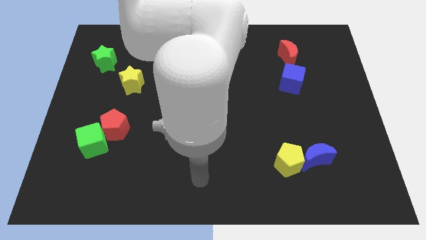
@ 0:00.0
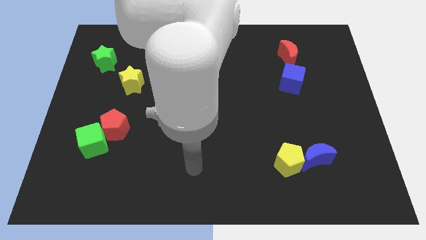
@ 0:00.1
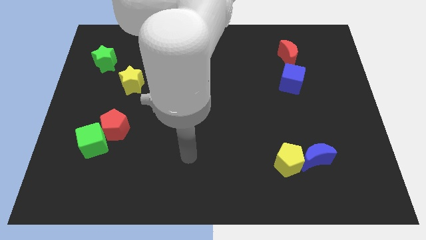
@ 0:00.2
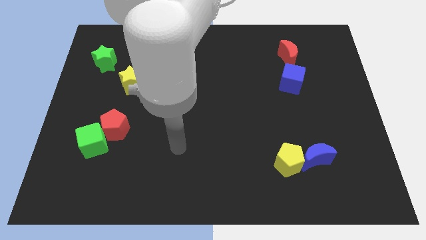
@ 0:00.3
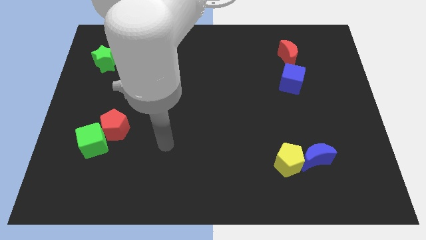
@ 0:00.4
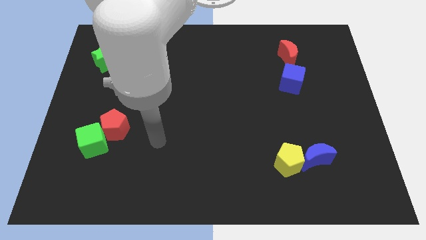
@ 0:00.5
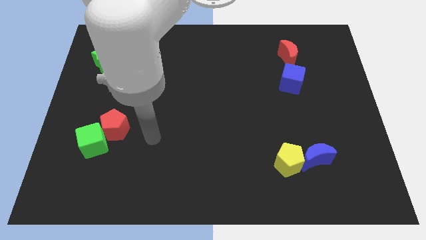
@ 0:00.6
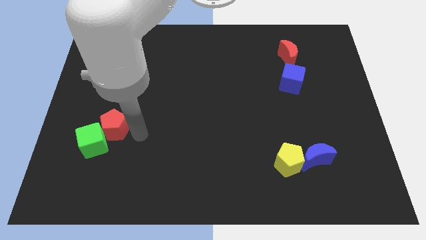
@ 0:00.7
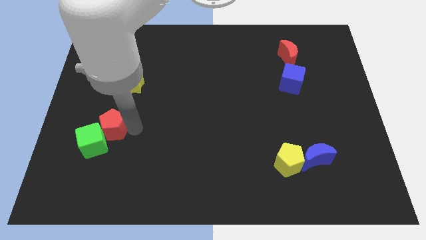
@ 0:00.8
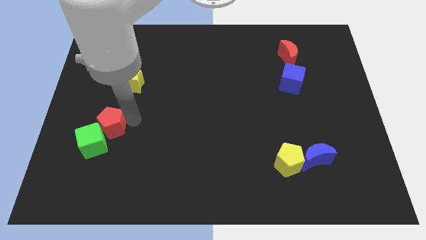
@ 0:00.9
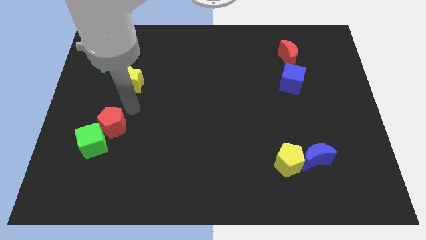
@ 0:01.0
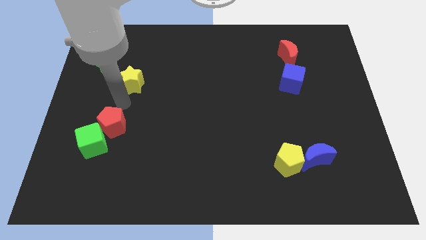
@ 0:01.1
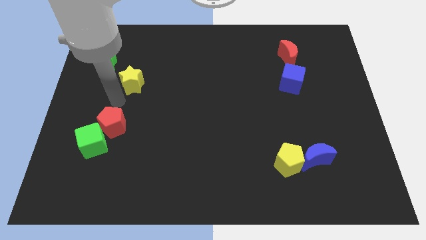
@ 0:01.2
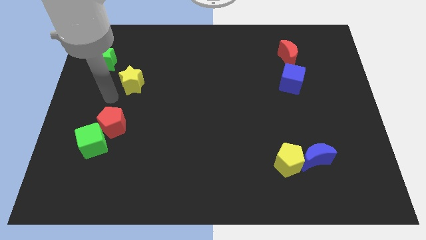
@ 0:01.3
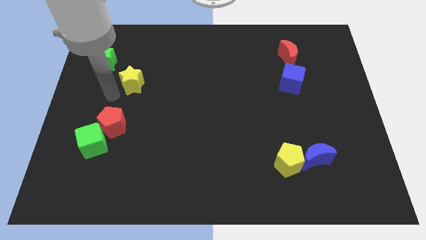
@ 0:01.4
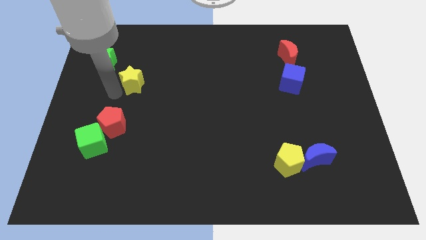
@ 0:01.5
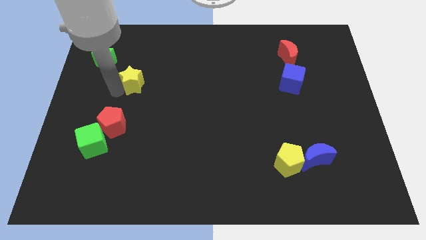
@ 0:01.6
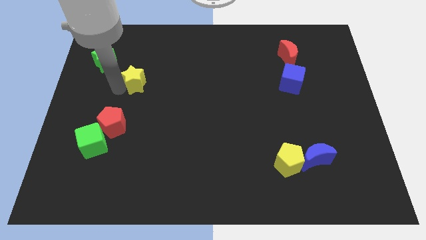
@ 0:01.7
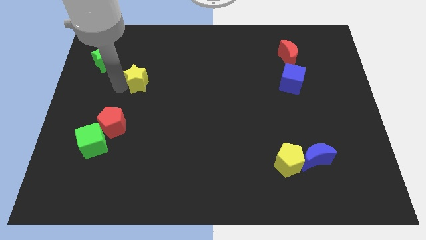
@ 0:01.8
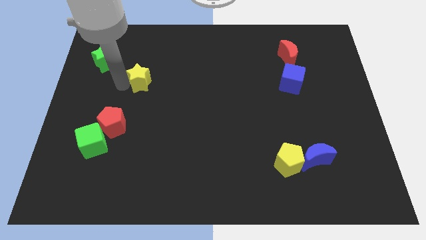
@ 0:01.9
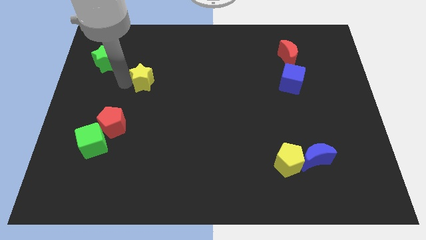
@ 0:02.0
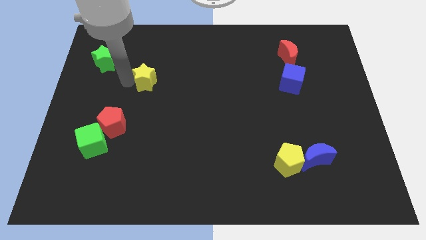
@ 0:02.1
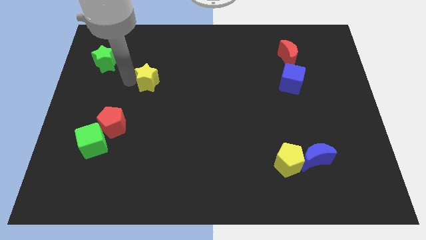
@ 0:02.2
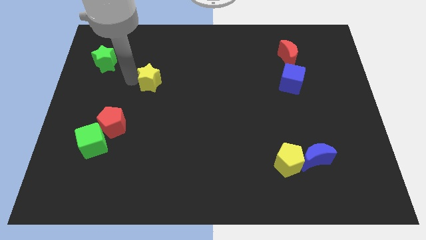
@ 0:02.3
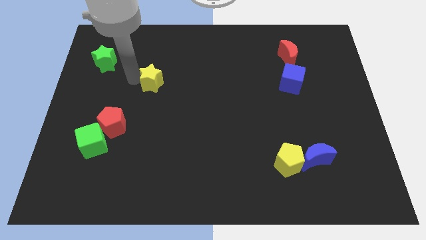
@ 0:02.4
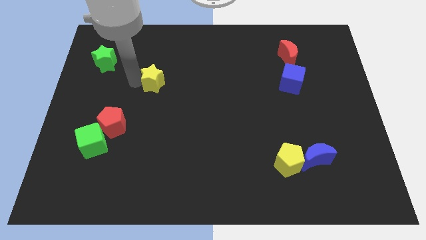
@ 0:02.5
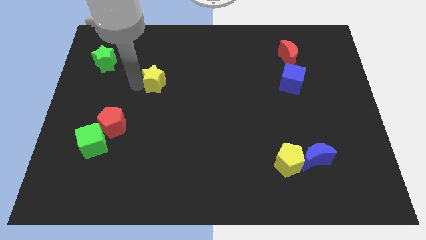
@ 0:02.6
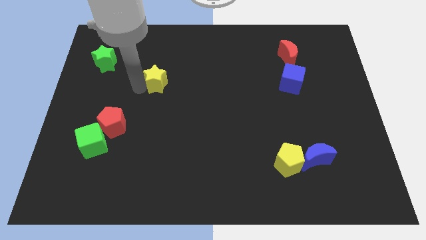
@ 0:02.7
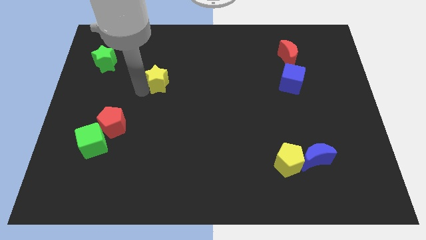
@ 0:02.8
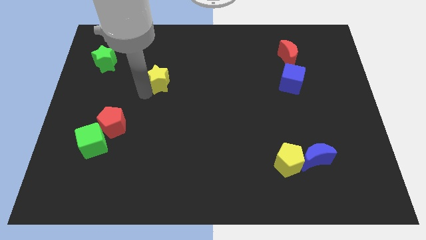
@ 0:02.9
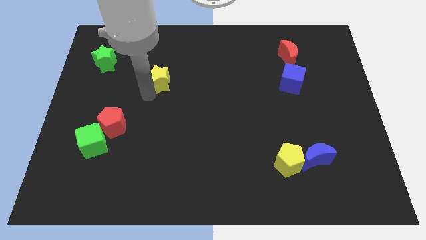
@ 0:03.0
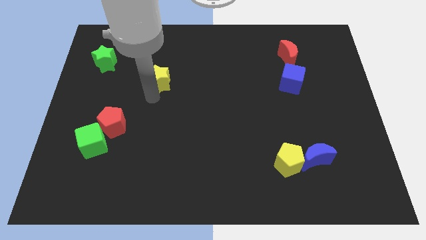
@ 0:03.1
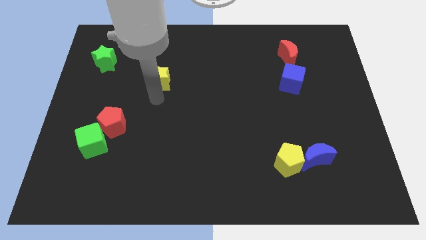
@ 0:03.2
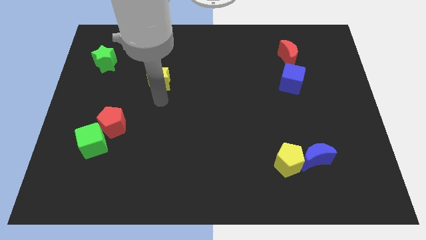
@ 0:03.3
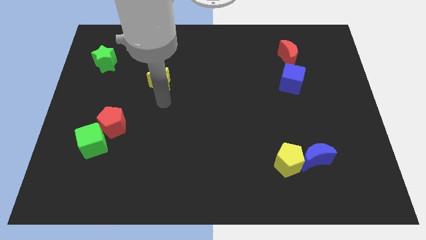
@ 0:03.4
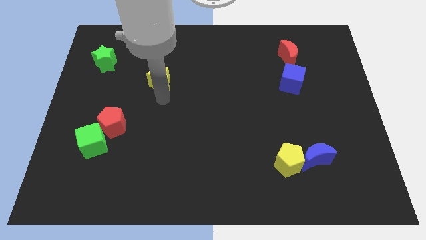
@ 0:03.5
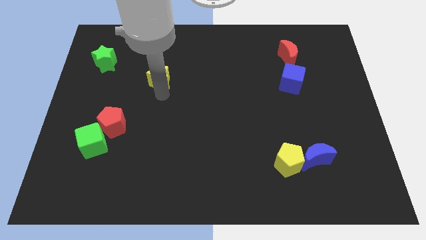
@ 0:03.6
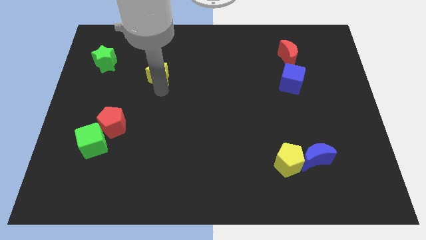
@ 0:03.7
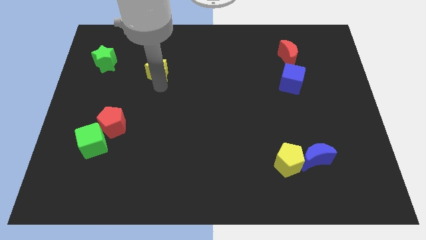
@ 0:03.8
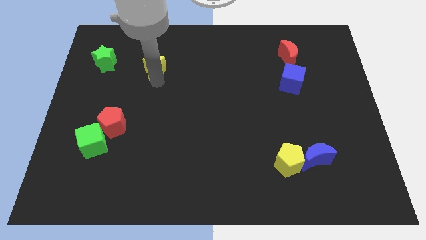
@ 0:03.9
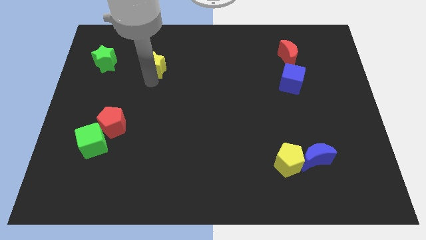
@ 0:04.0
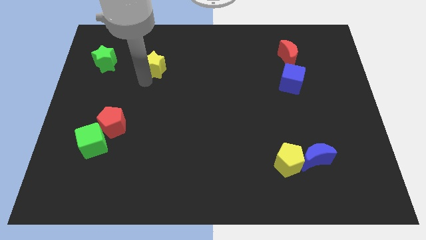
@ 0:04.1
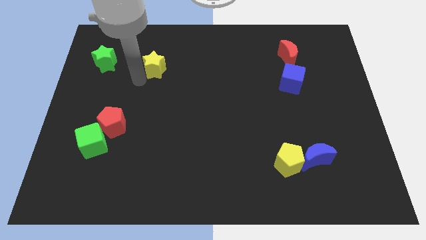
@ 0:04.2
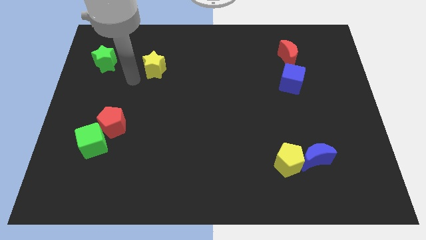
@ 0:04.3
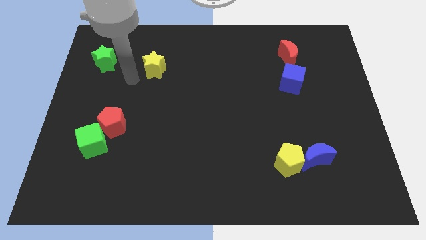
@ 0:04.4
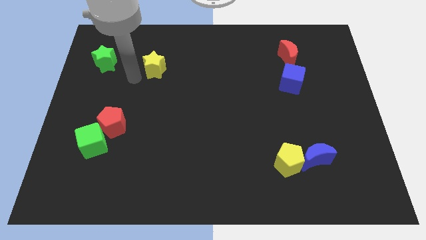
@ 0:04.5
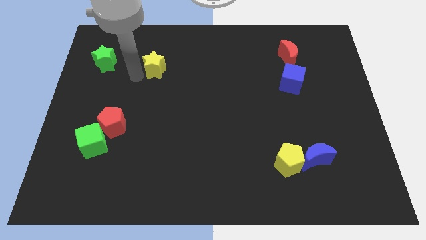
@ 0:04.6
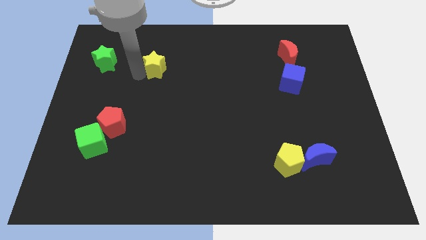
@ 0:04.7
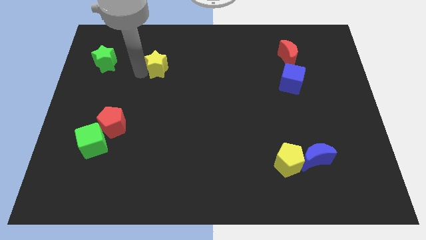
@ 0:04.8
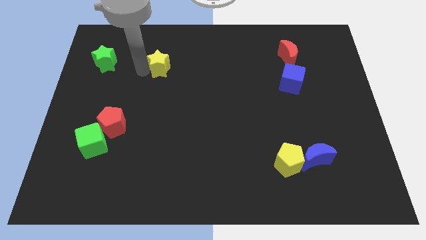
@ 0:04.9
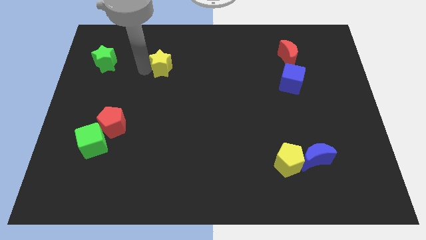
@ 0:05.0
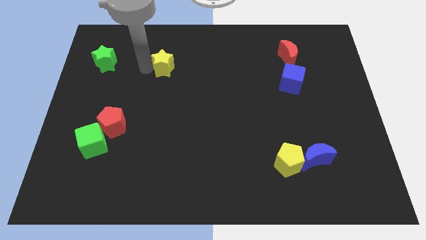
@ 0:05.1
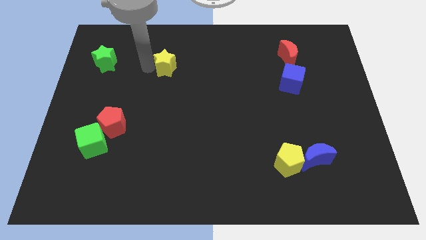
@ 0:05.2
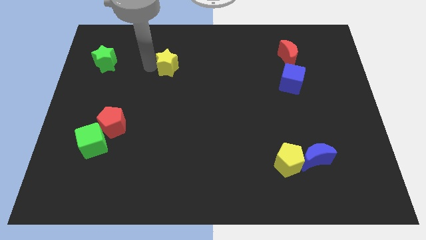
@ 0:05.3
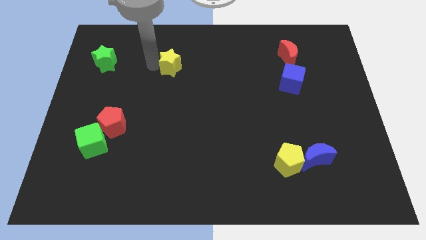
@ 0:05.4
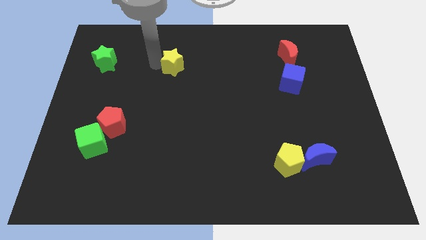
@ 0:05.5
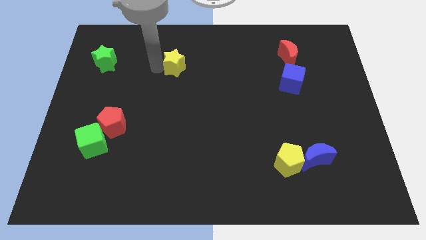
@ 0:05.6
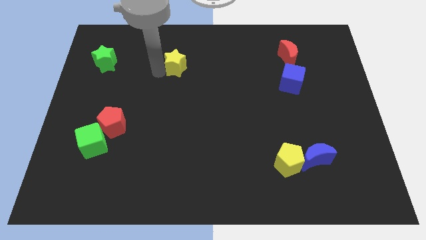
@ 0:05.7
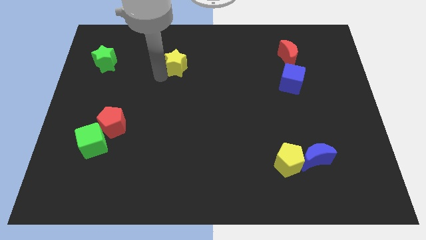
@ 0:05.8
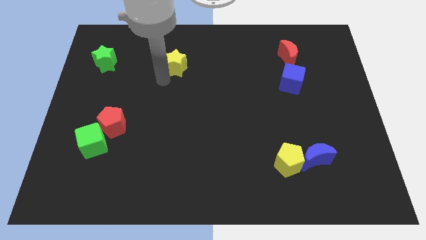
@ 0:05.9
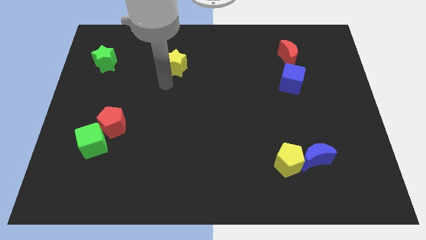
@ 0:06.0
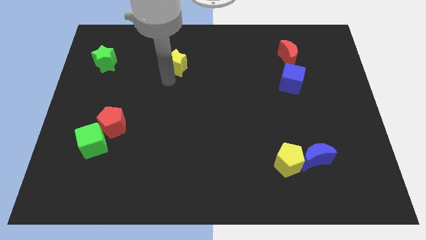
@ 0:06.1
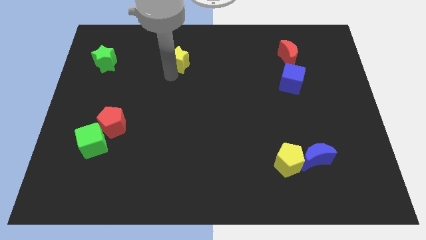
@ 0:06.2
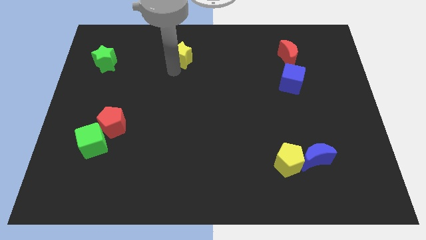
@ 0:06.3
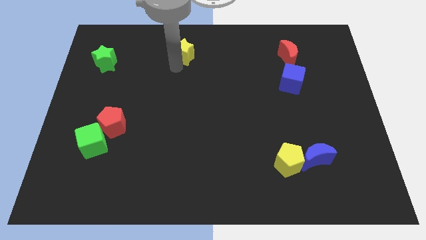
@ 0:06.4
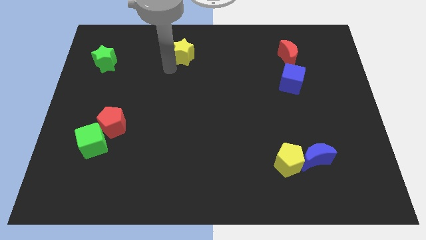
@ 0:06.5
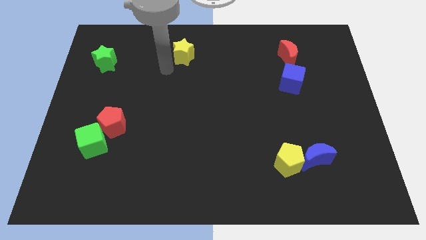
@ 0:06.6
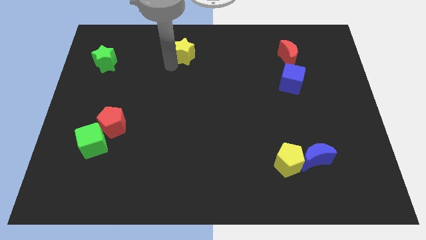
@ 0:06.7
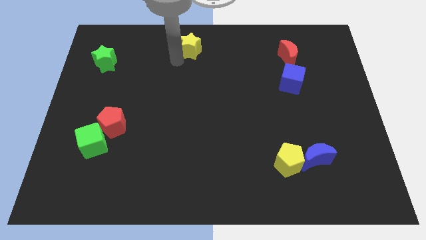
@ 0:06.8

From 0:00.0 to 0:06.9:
push the yellow star to the top
